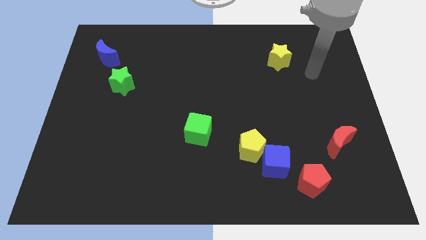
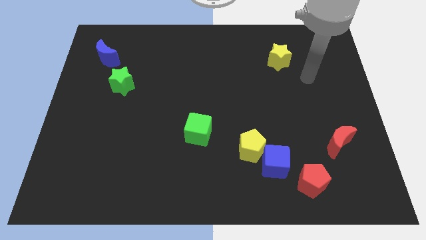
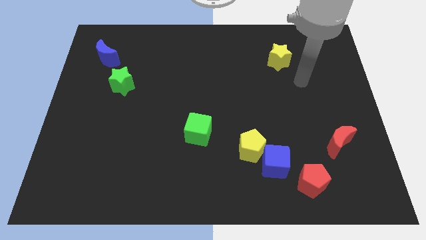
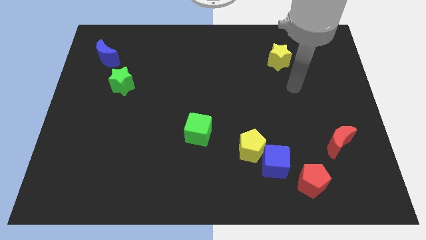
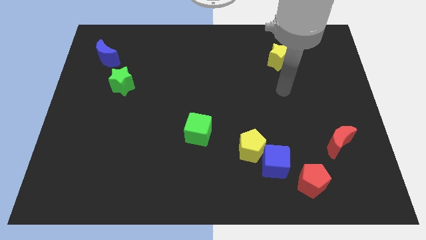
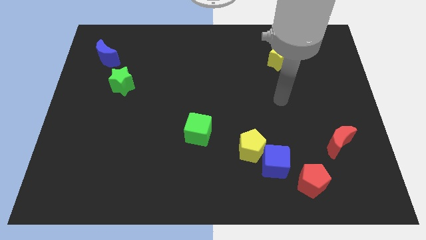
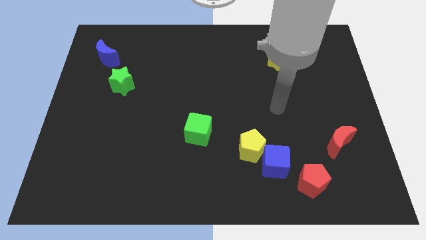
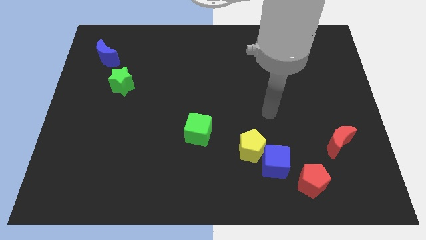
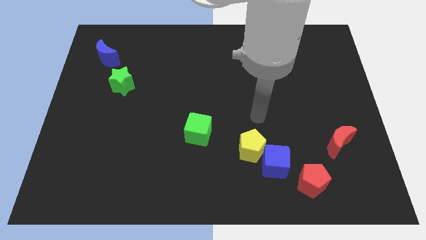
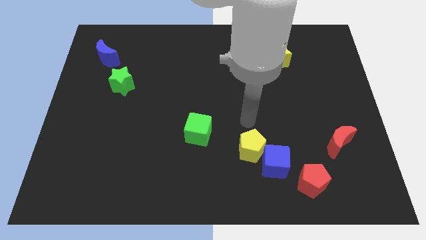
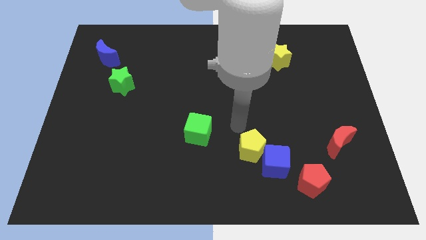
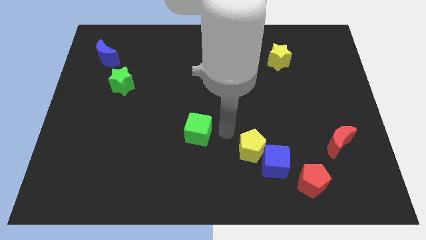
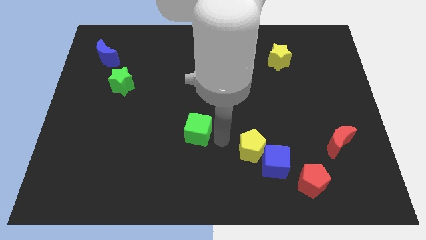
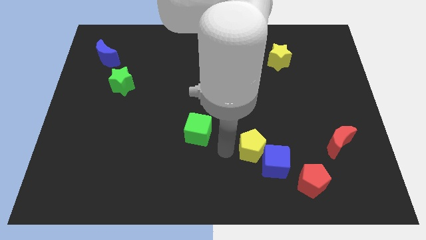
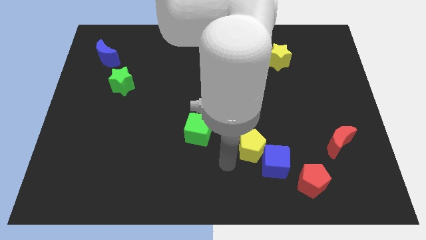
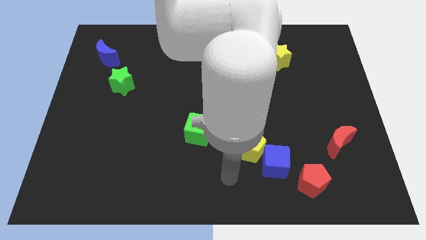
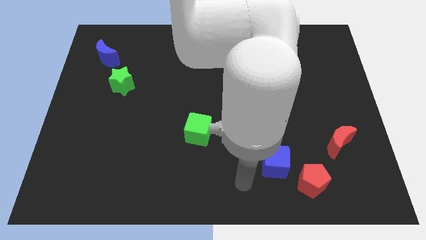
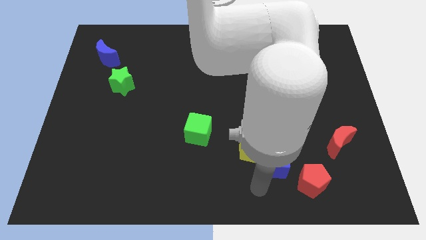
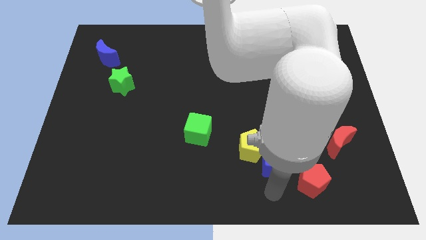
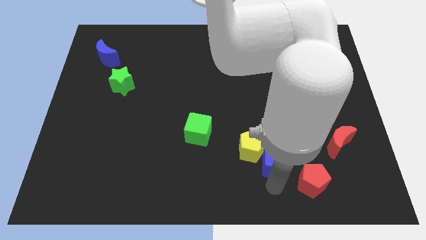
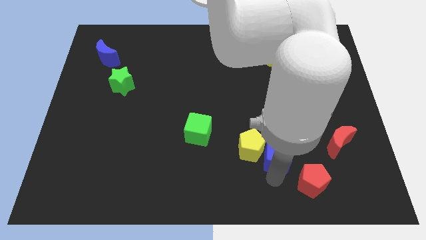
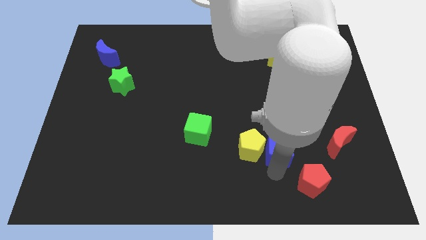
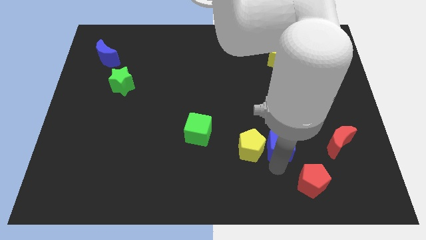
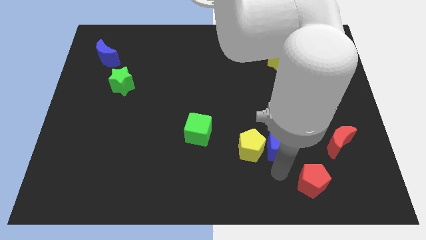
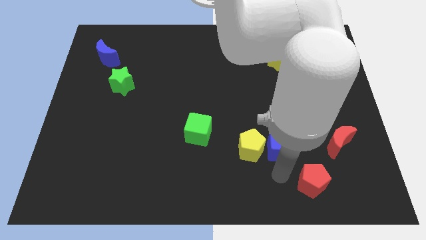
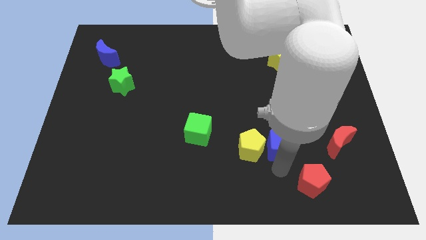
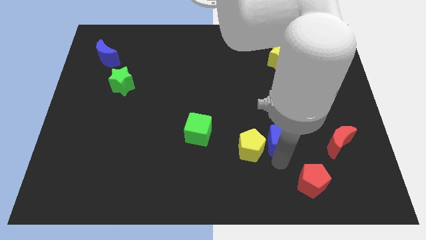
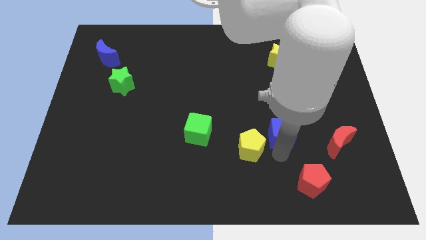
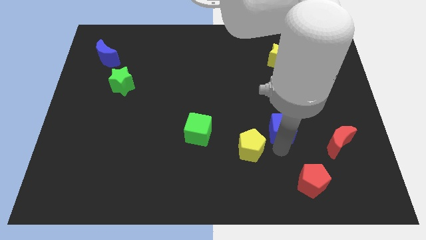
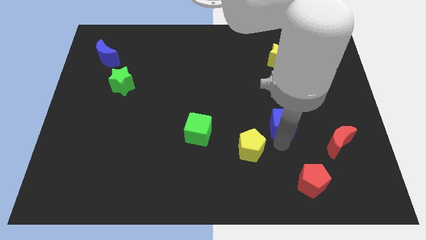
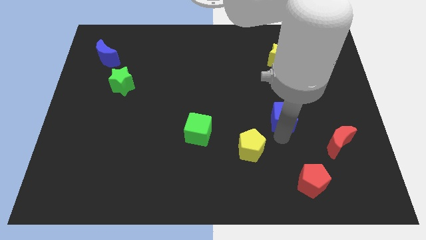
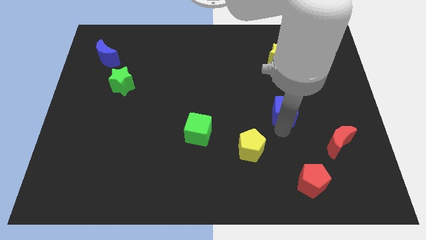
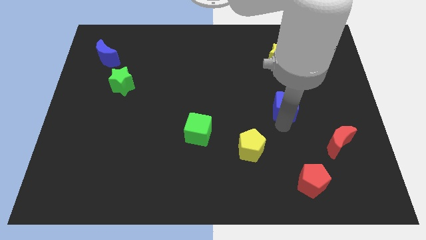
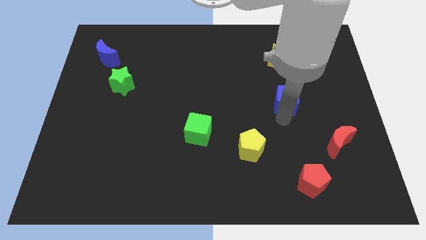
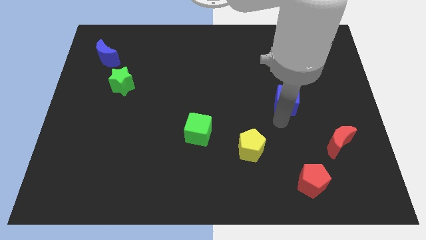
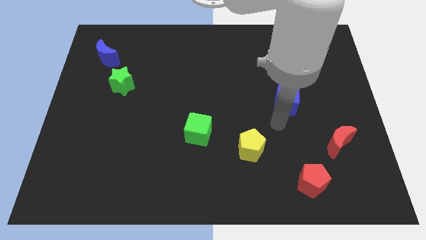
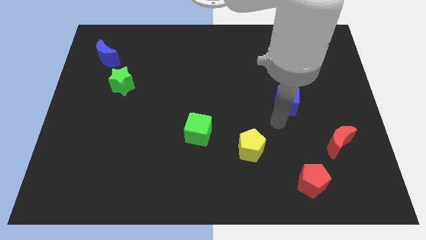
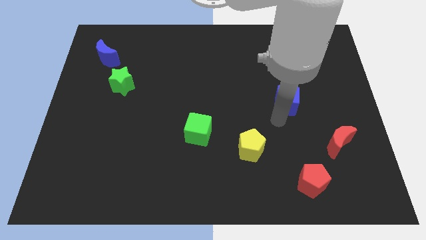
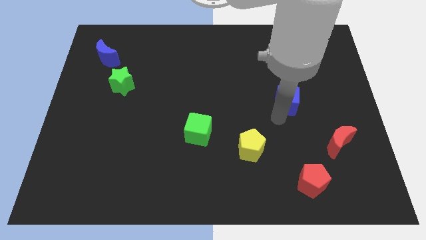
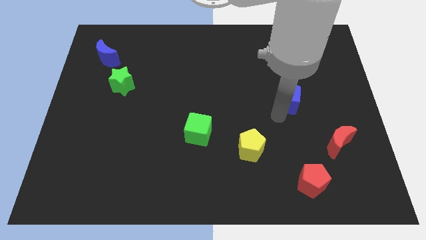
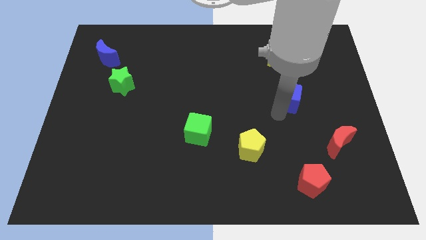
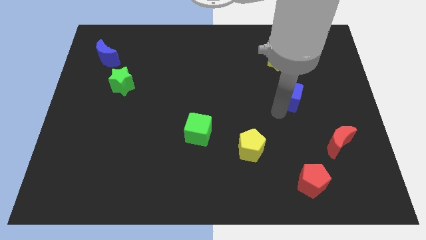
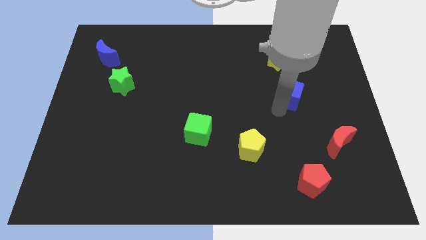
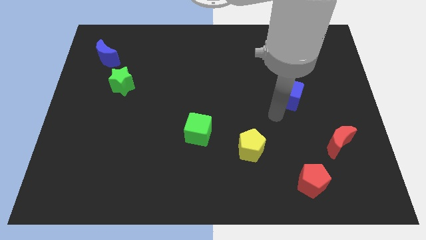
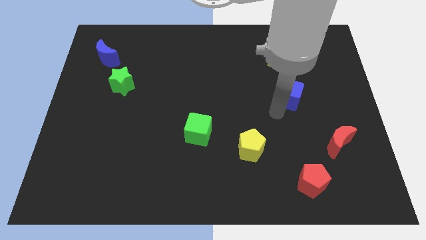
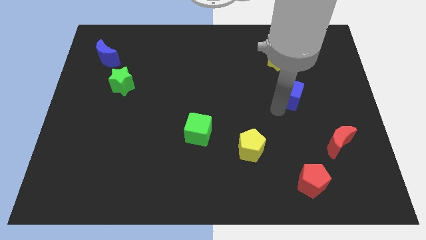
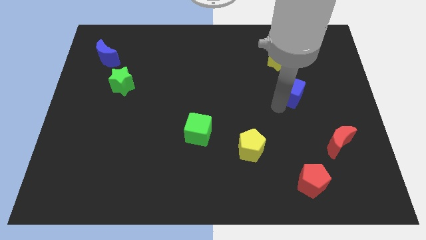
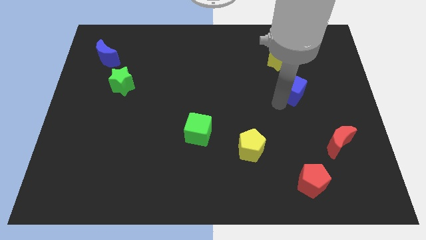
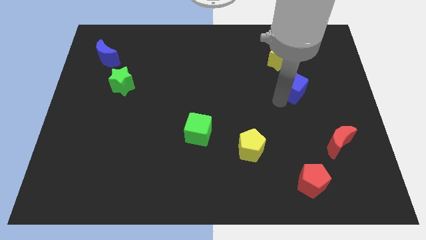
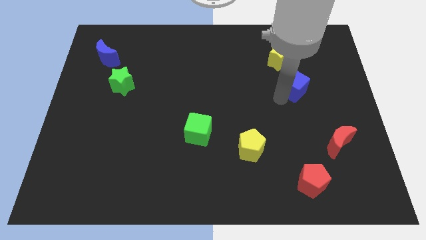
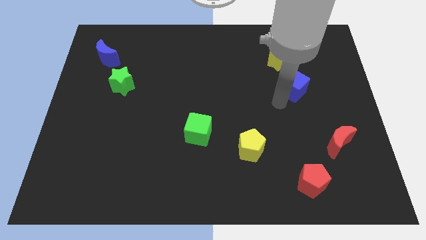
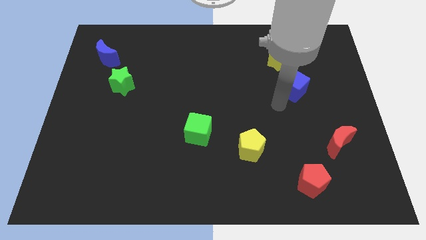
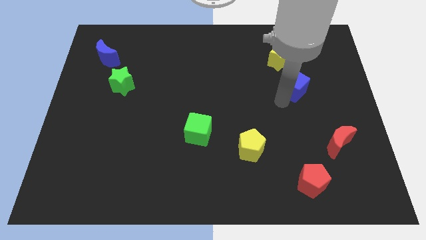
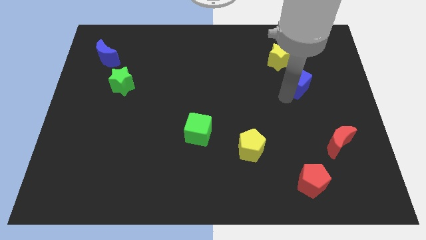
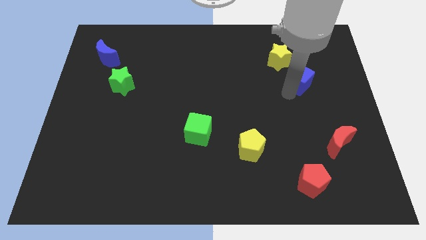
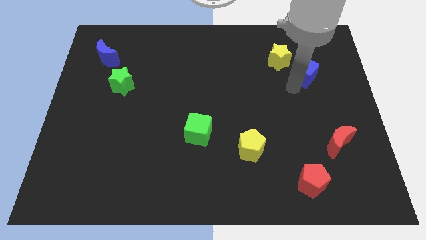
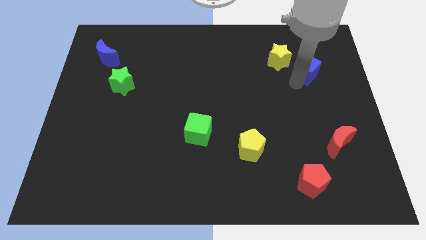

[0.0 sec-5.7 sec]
move the blue cube to the right of the yellow star
